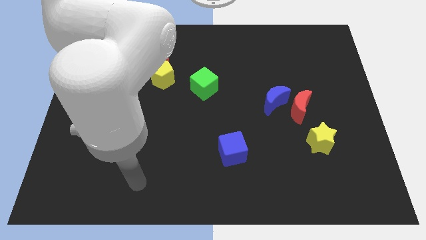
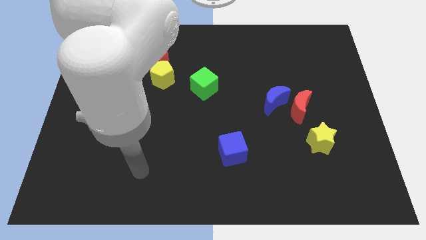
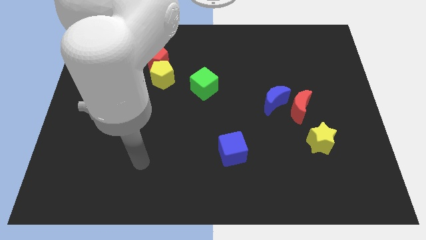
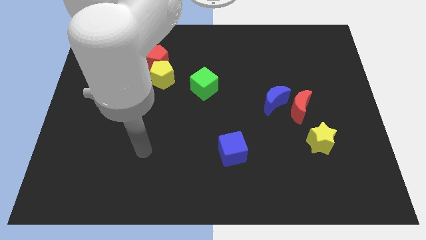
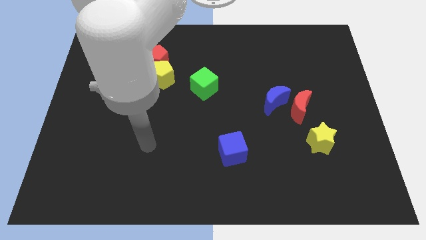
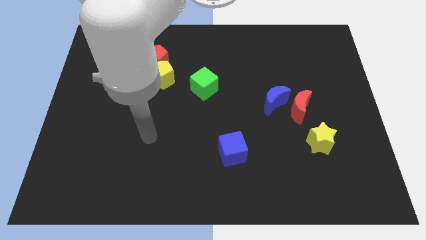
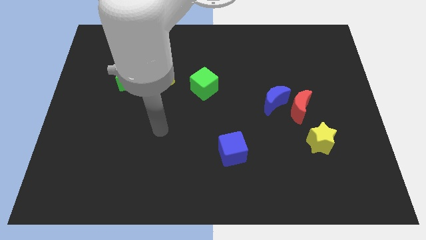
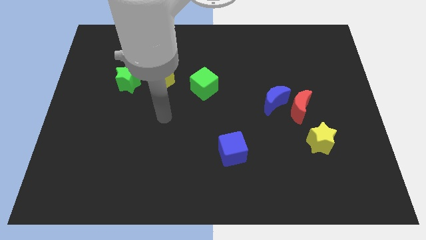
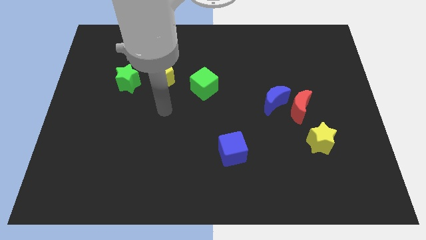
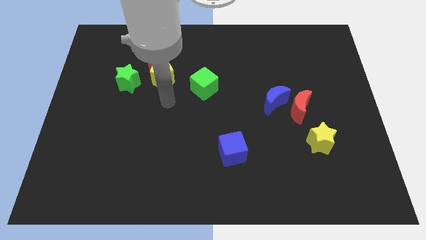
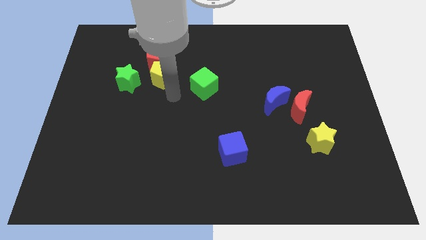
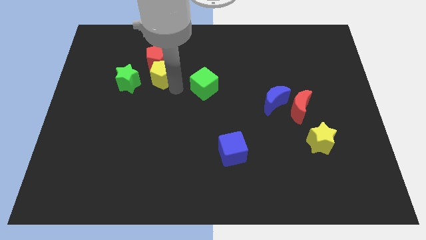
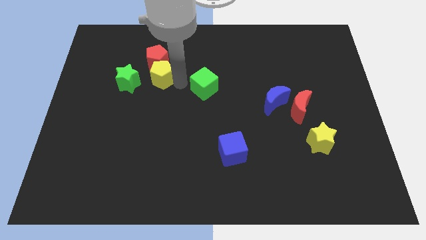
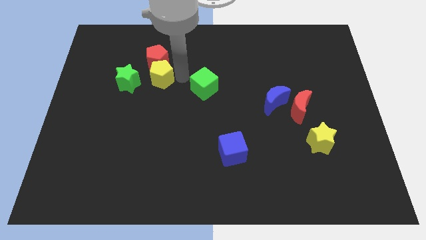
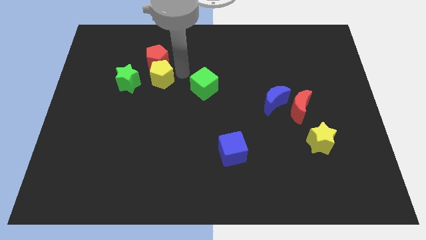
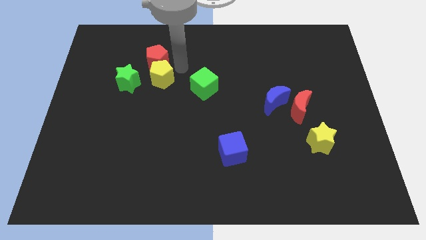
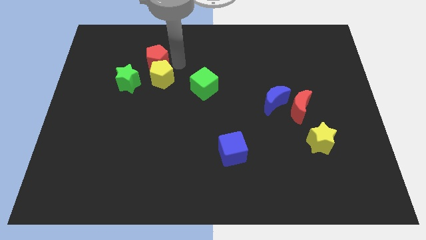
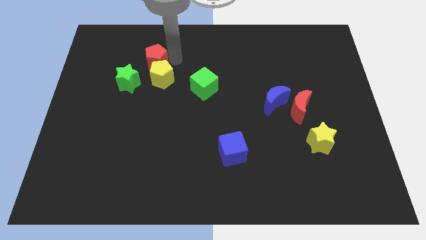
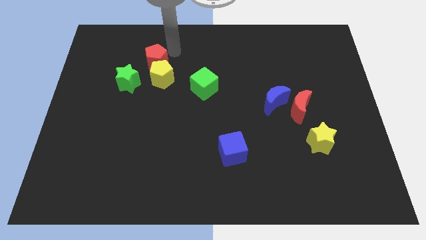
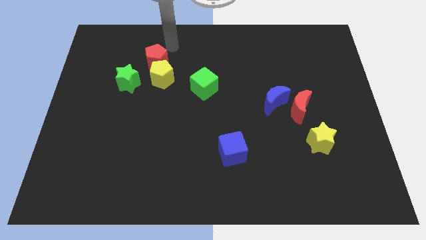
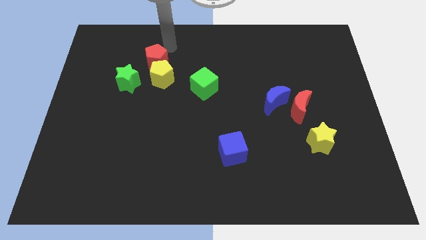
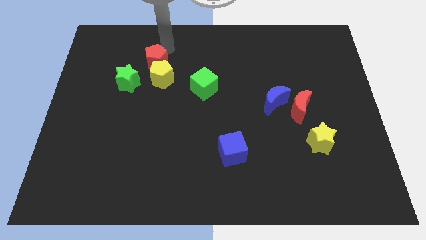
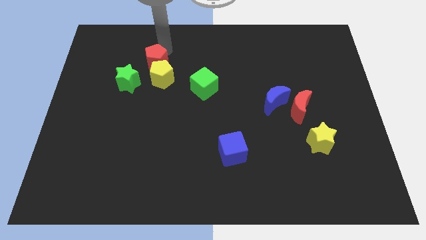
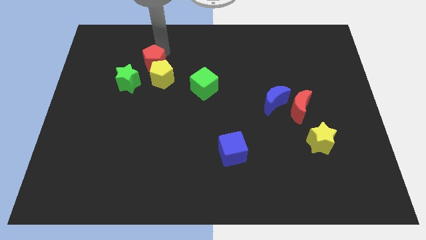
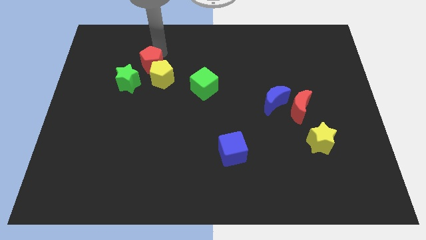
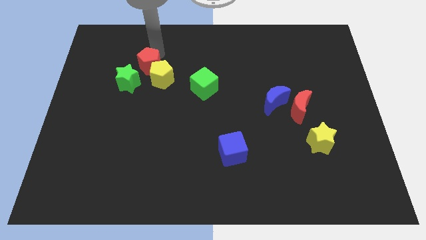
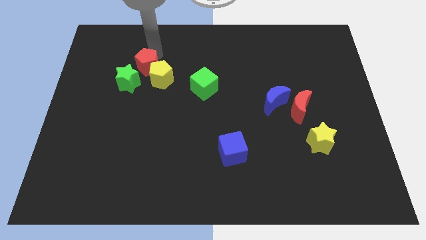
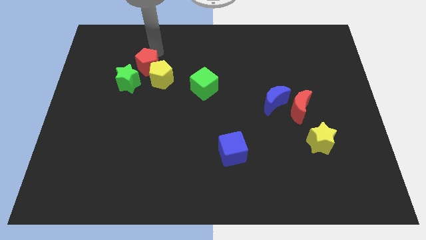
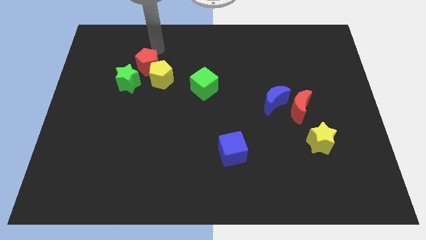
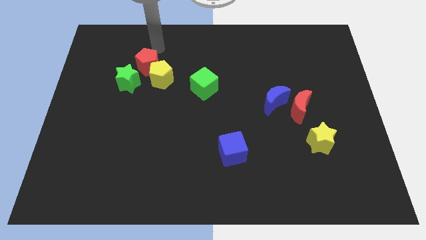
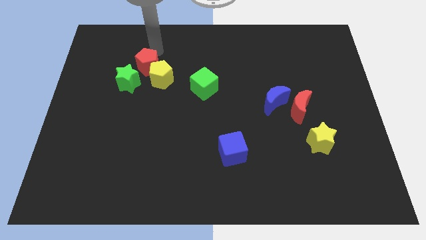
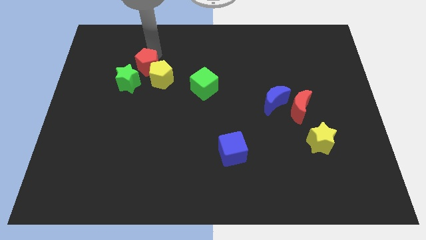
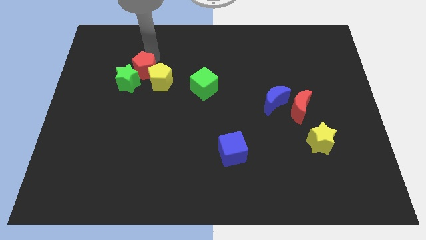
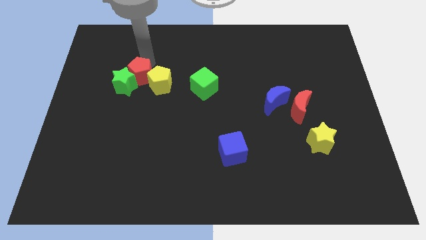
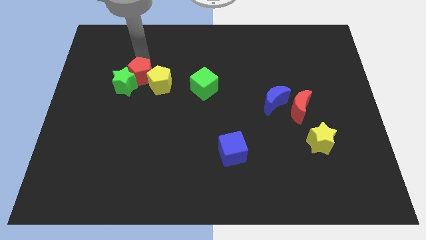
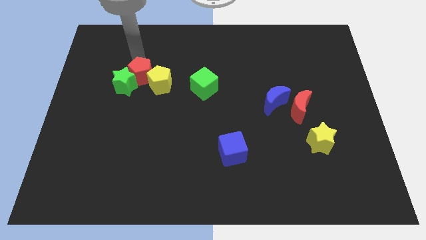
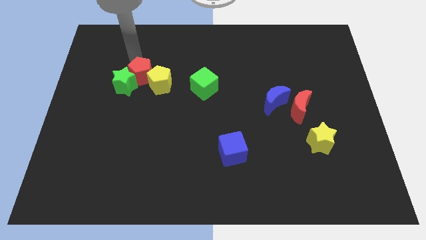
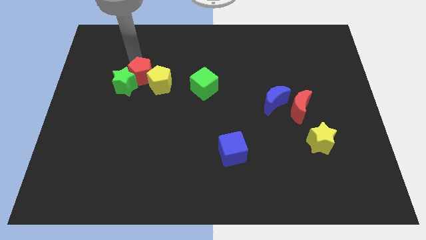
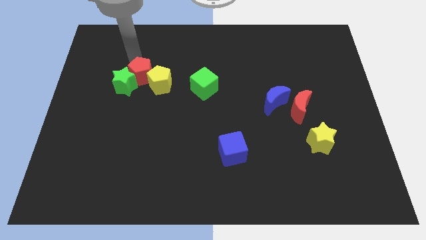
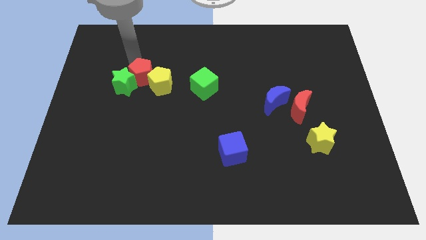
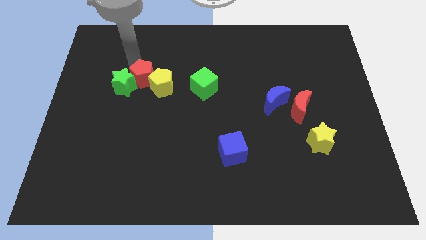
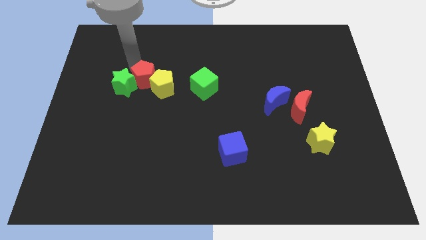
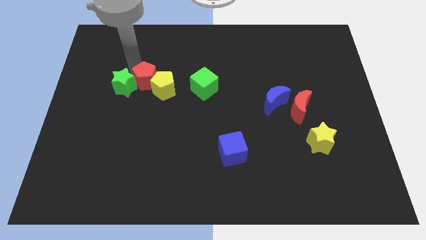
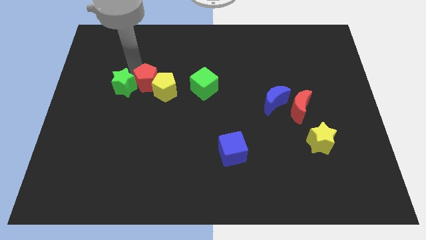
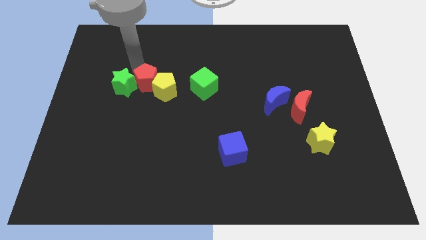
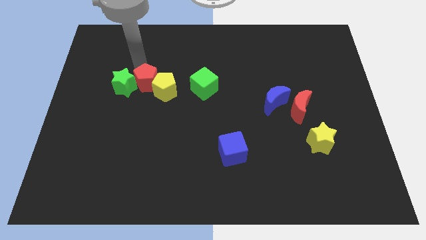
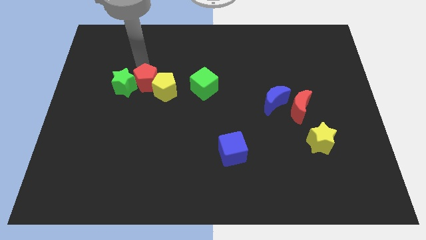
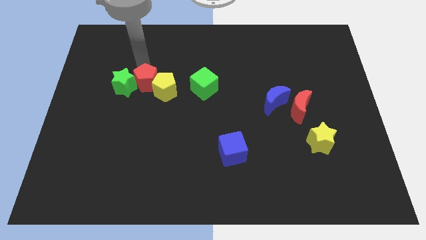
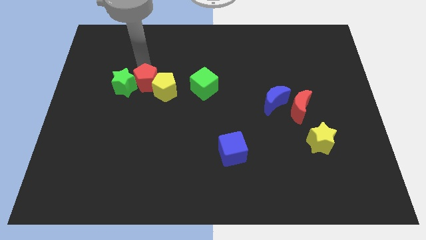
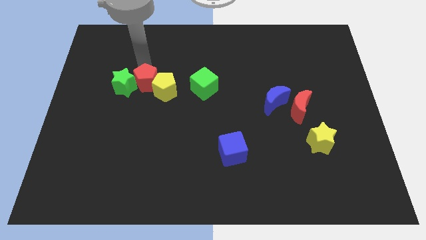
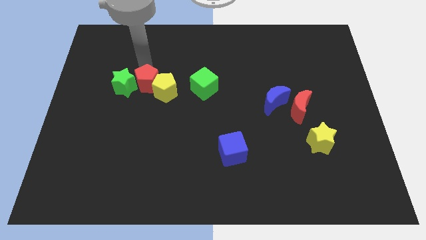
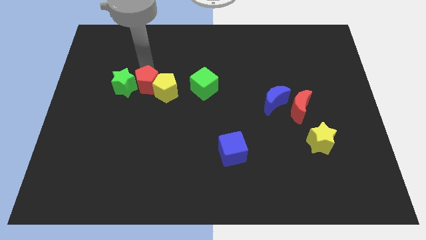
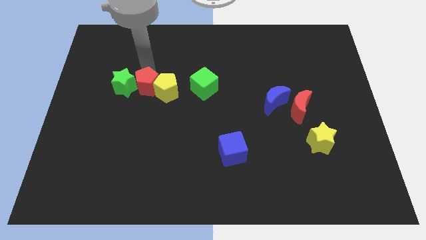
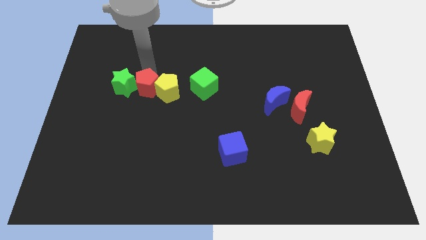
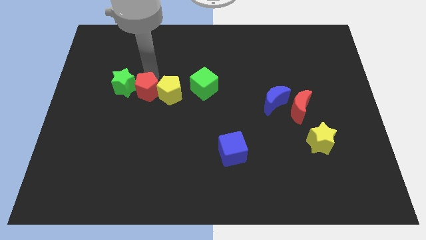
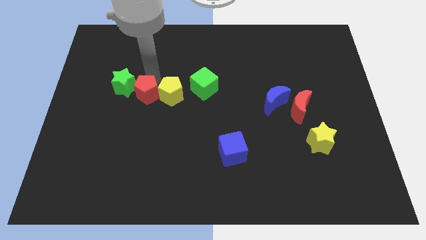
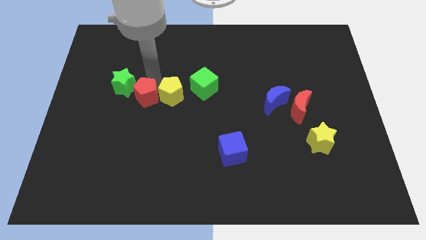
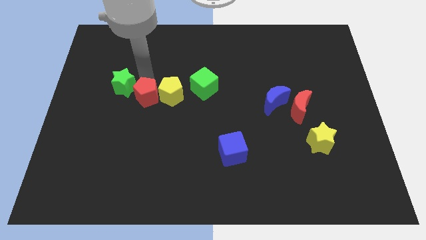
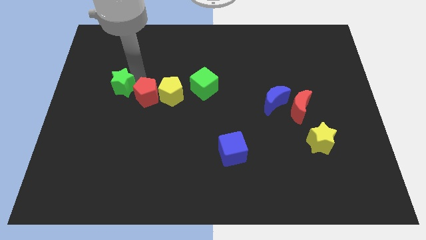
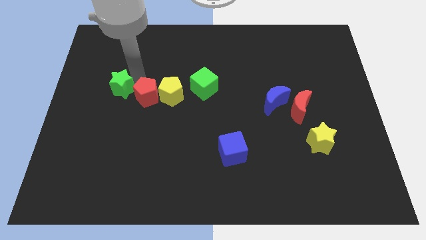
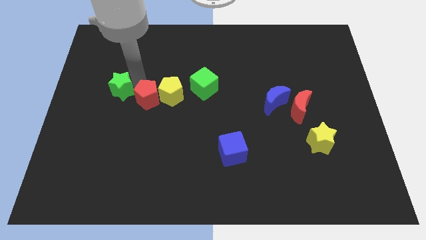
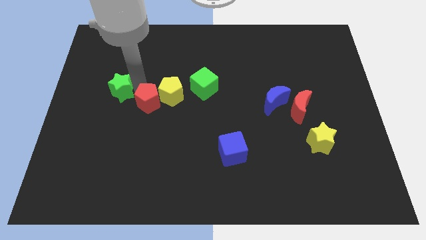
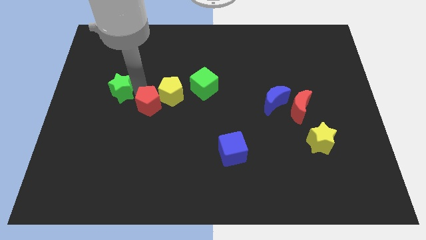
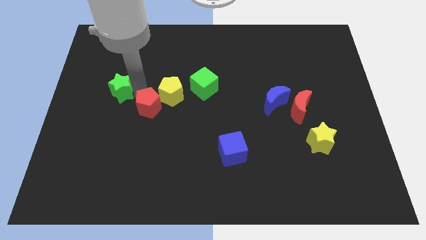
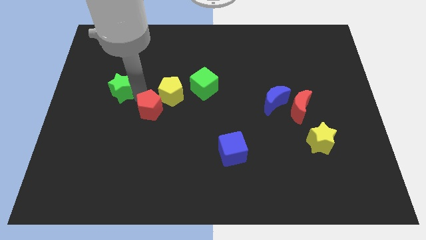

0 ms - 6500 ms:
push the red pentagon to the bottom side of the yellow pentagon
